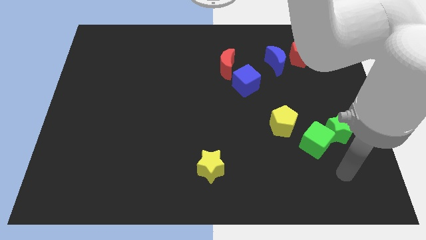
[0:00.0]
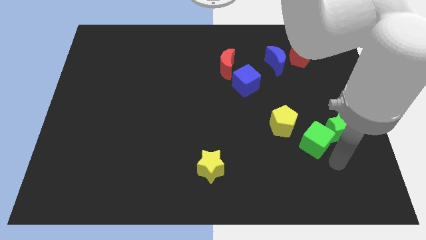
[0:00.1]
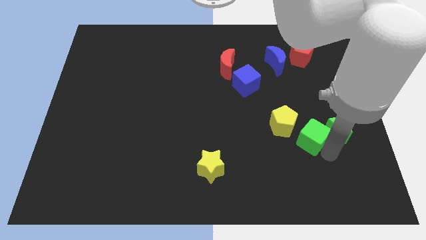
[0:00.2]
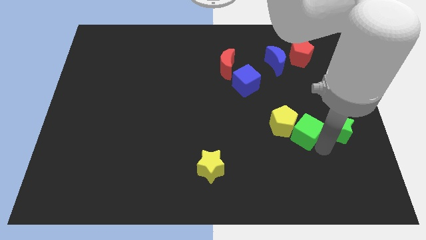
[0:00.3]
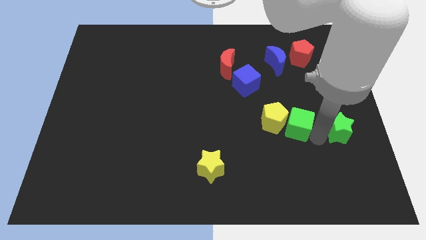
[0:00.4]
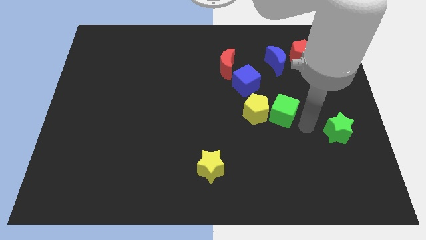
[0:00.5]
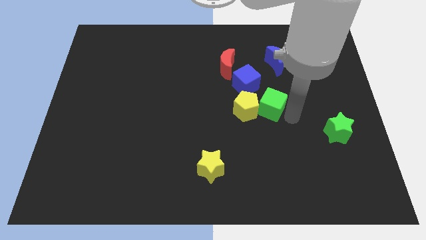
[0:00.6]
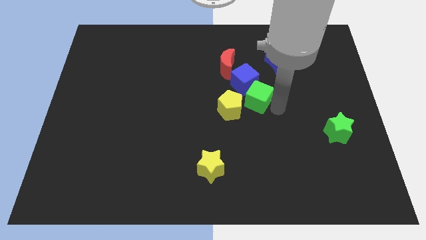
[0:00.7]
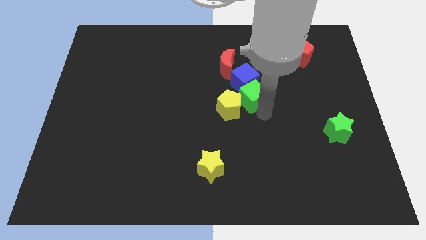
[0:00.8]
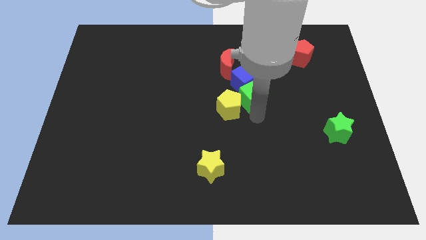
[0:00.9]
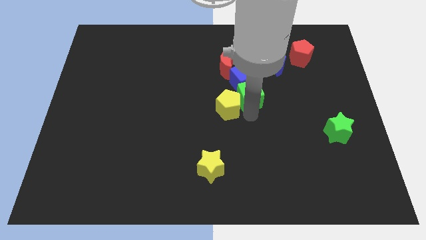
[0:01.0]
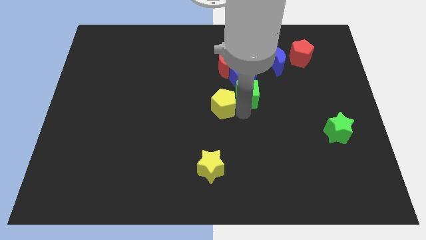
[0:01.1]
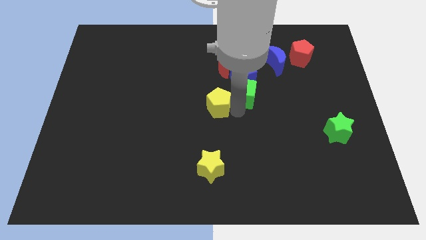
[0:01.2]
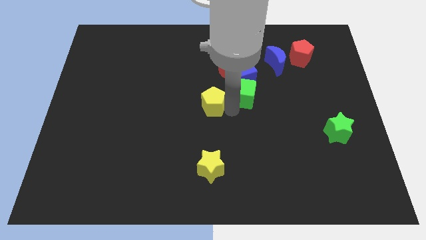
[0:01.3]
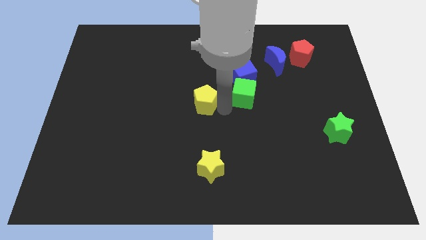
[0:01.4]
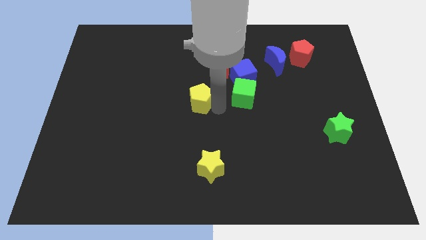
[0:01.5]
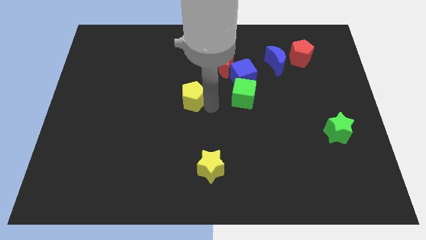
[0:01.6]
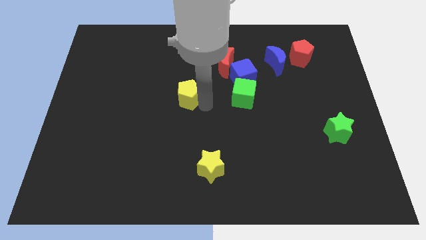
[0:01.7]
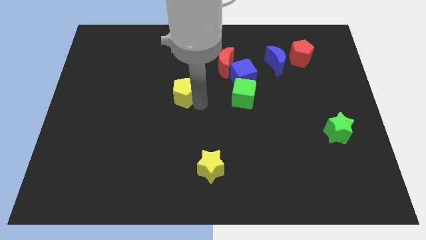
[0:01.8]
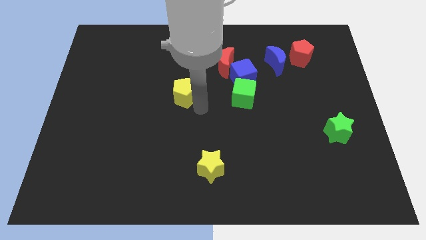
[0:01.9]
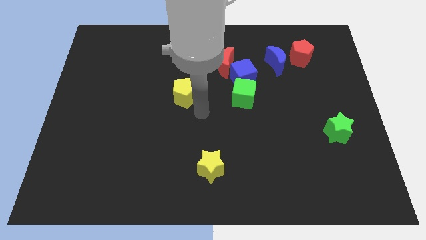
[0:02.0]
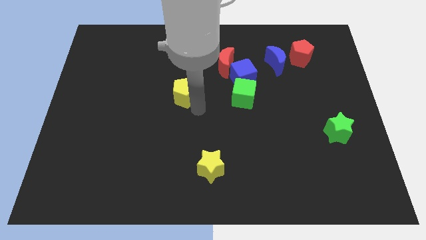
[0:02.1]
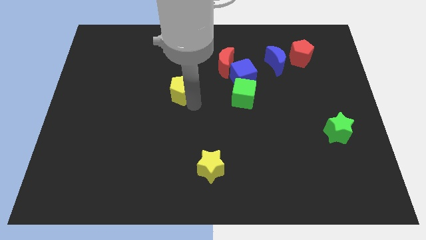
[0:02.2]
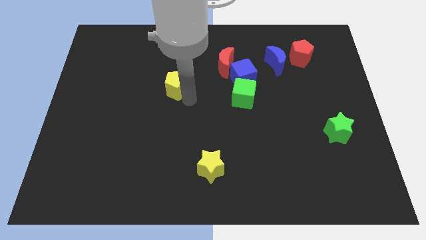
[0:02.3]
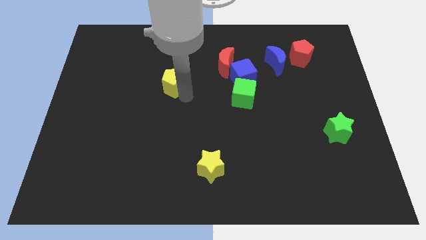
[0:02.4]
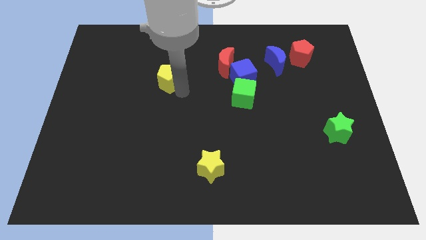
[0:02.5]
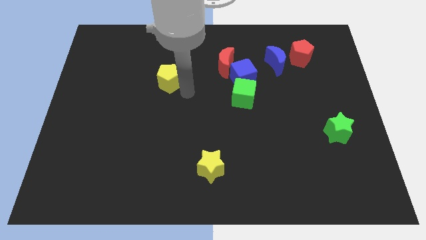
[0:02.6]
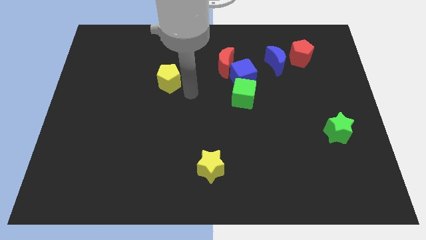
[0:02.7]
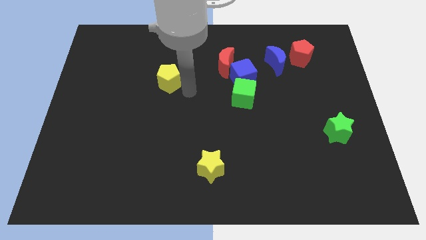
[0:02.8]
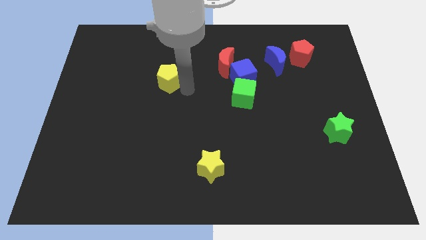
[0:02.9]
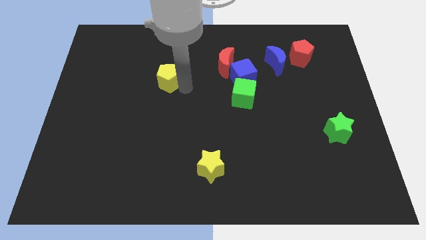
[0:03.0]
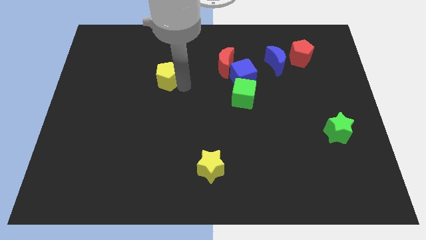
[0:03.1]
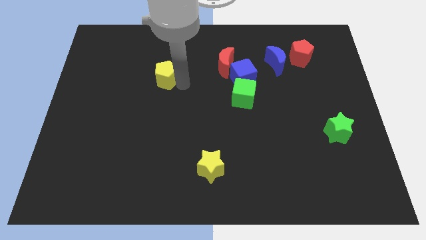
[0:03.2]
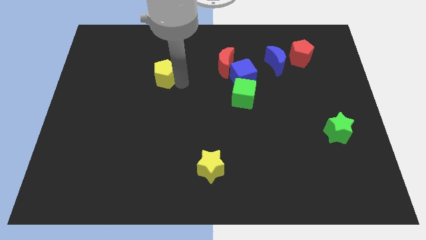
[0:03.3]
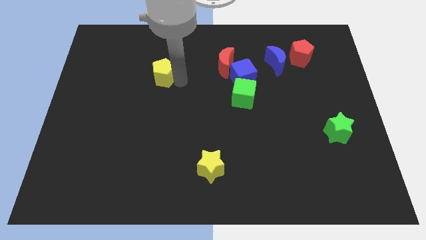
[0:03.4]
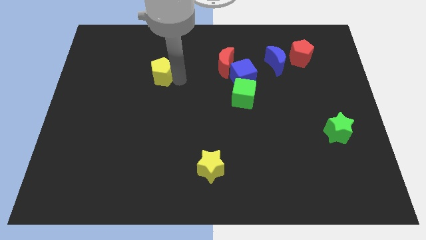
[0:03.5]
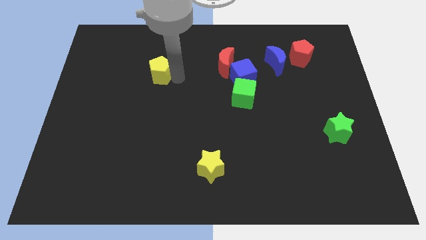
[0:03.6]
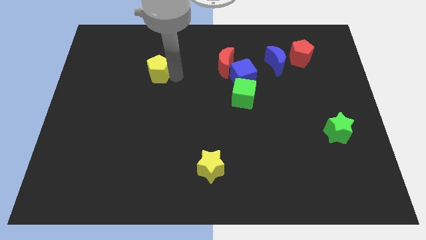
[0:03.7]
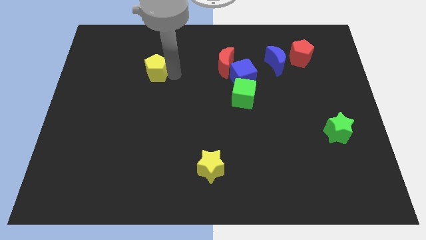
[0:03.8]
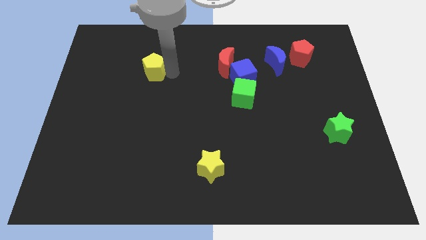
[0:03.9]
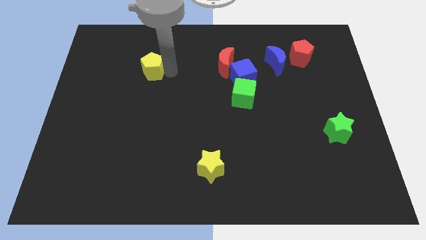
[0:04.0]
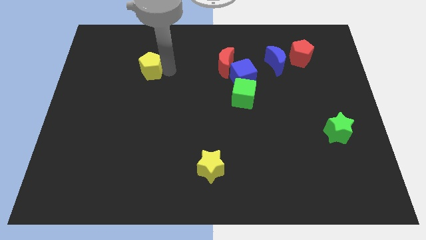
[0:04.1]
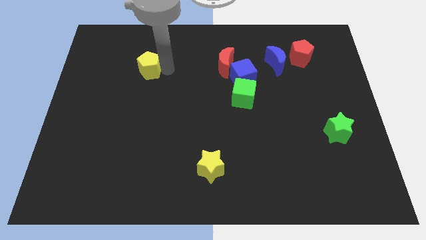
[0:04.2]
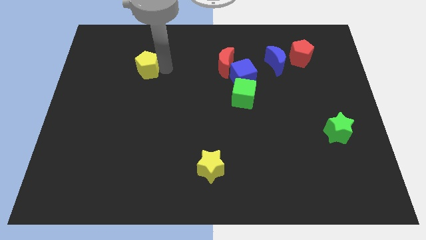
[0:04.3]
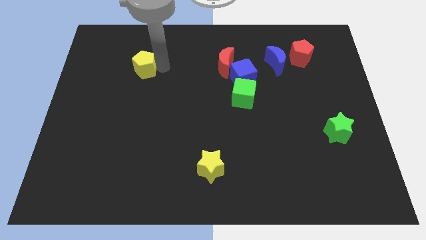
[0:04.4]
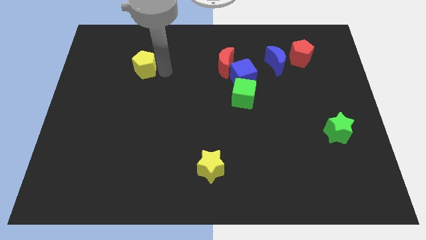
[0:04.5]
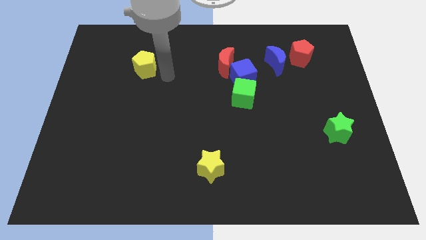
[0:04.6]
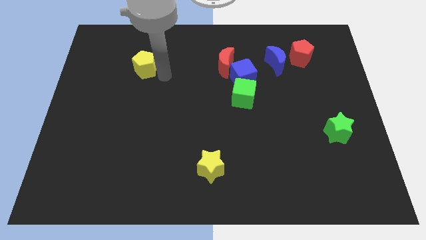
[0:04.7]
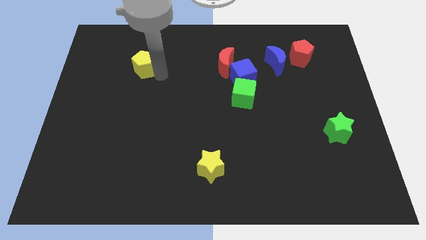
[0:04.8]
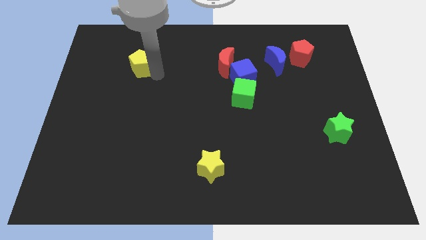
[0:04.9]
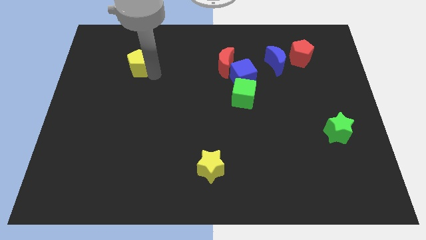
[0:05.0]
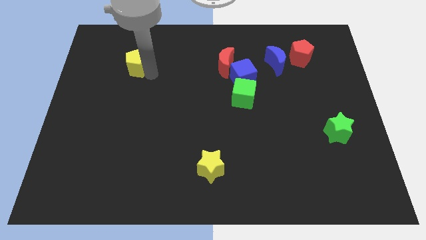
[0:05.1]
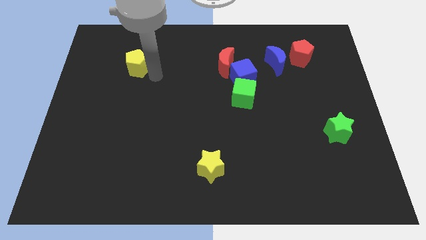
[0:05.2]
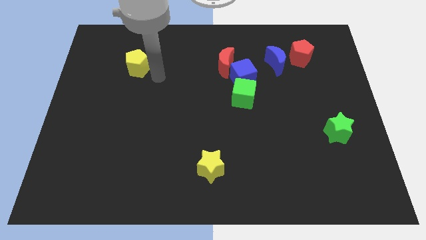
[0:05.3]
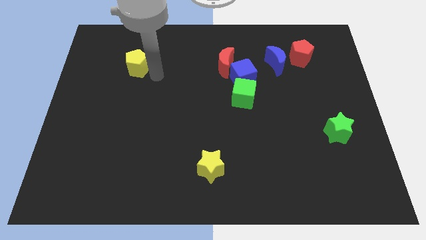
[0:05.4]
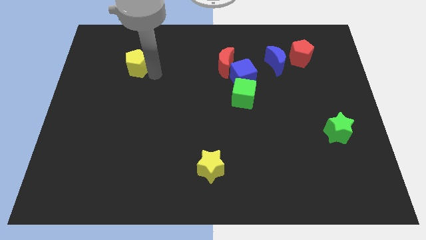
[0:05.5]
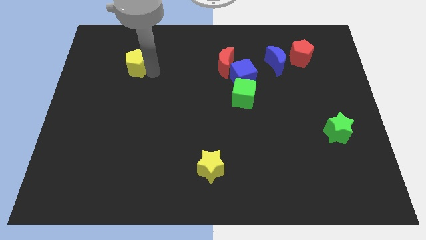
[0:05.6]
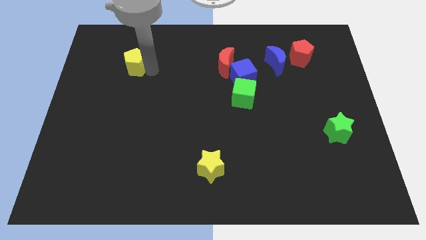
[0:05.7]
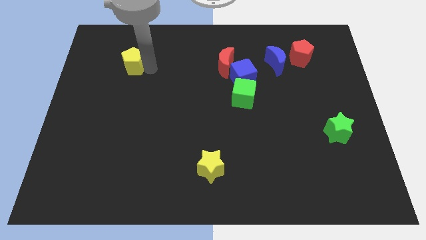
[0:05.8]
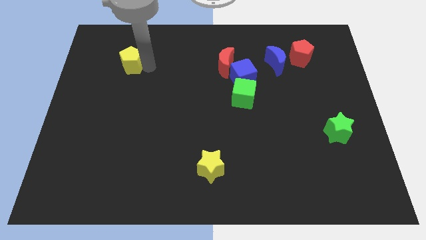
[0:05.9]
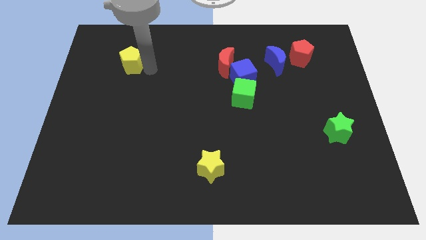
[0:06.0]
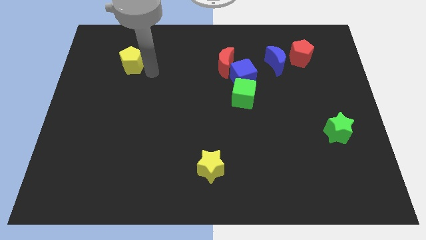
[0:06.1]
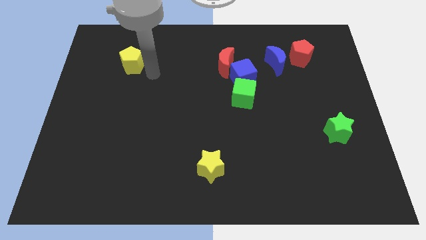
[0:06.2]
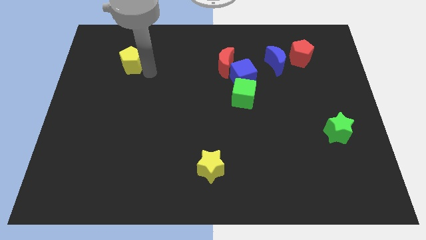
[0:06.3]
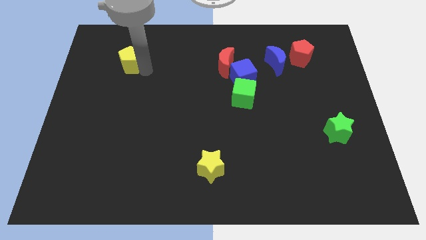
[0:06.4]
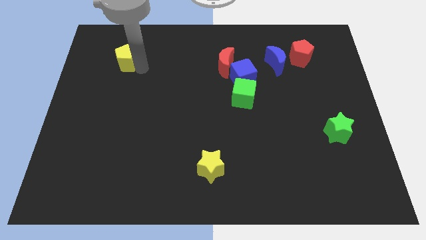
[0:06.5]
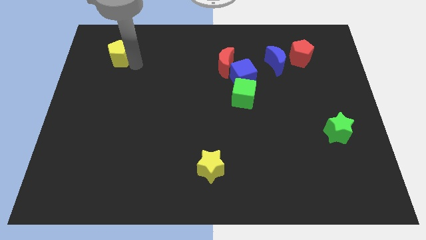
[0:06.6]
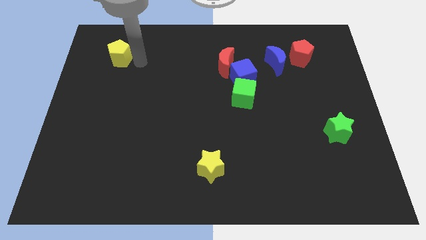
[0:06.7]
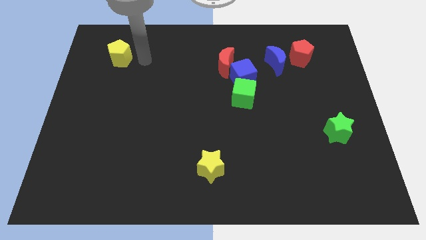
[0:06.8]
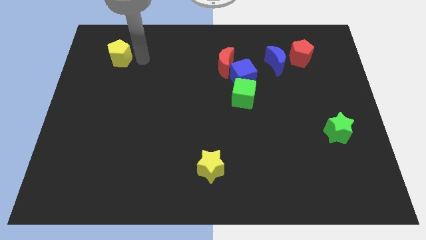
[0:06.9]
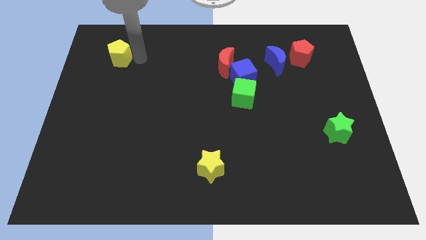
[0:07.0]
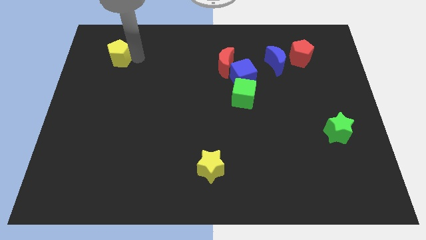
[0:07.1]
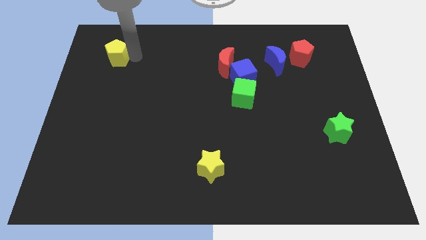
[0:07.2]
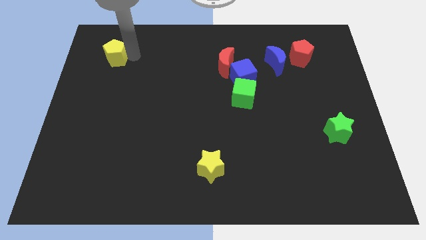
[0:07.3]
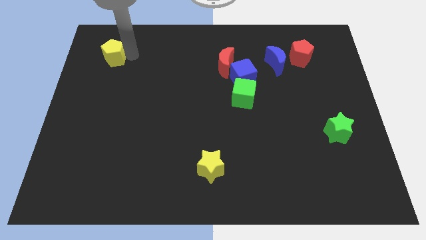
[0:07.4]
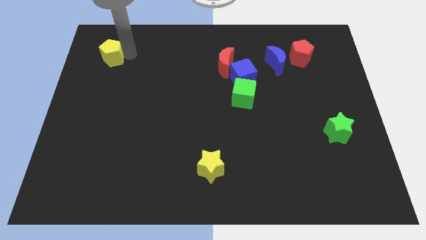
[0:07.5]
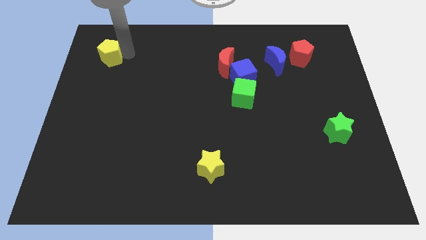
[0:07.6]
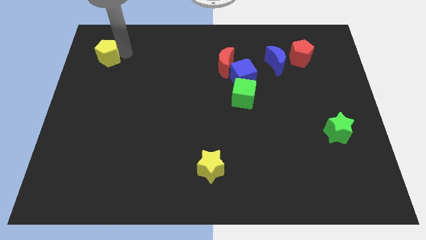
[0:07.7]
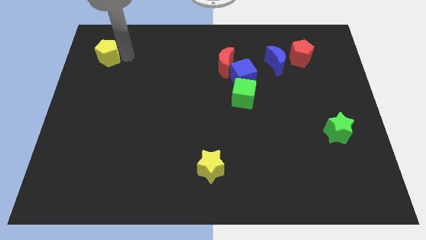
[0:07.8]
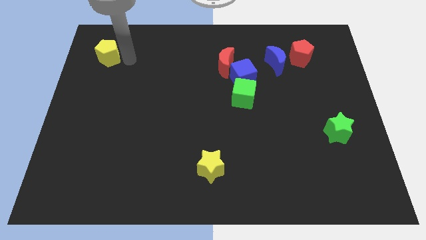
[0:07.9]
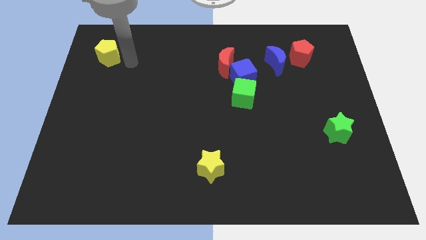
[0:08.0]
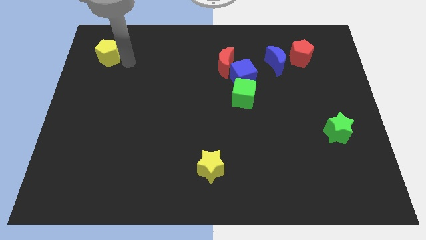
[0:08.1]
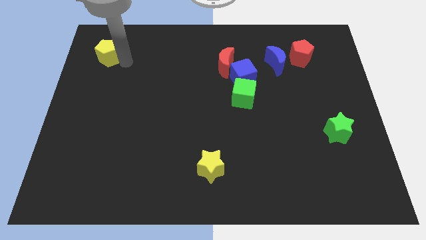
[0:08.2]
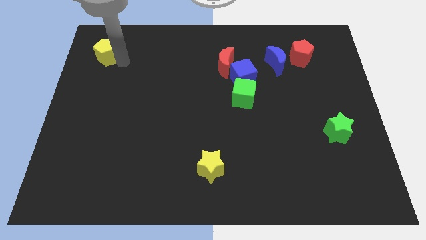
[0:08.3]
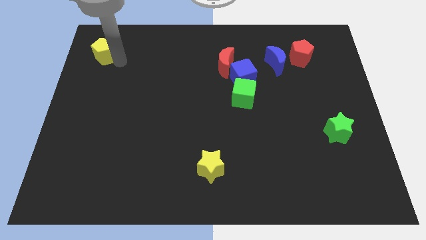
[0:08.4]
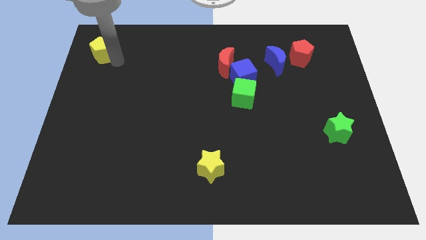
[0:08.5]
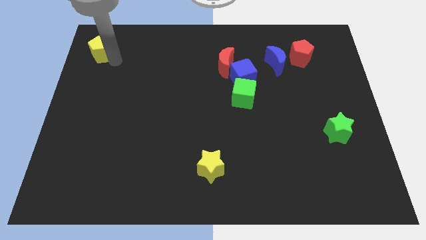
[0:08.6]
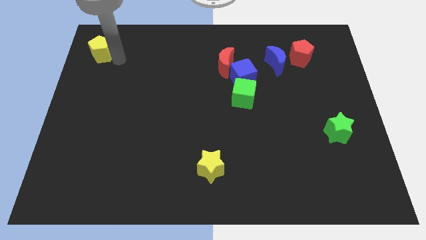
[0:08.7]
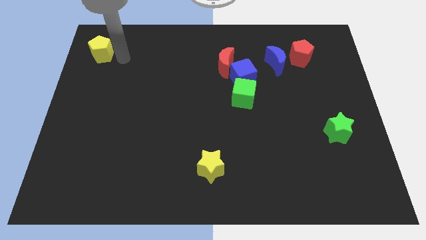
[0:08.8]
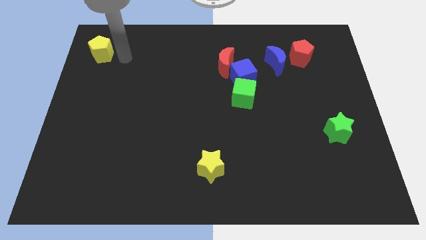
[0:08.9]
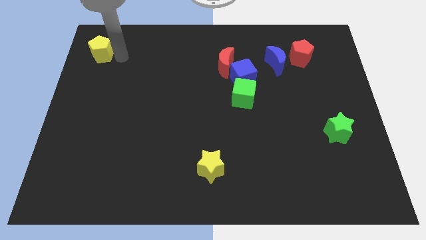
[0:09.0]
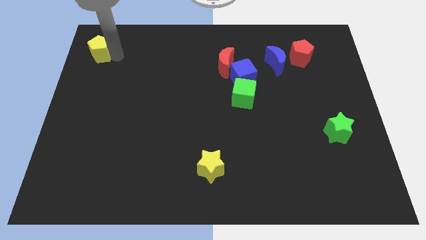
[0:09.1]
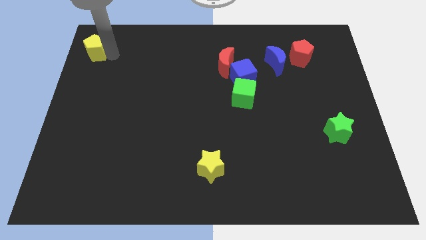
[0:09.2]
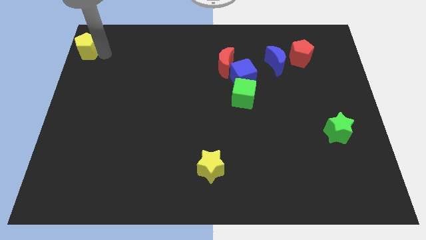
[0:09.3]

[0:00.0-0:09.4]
slide the yellow pentagon to the top left
